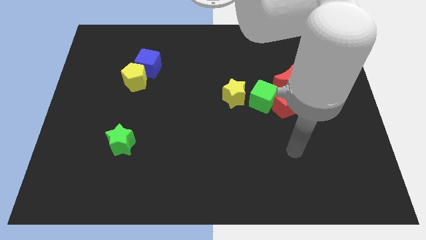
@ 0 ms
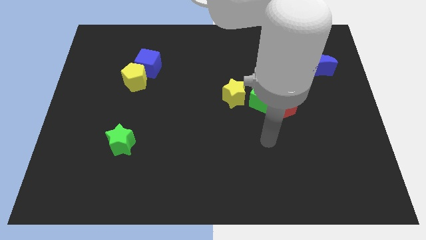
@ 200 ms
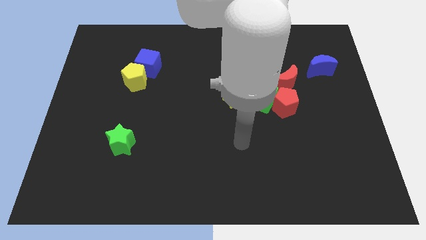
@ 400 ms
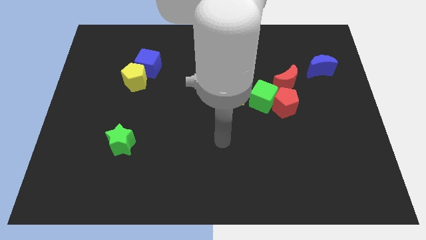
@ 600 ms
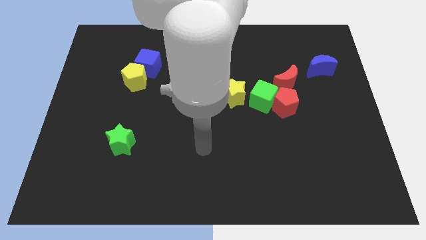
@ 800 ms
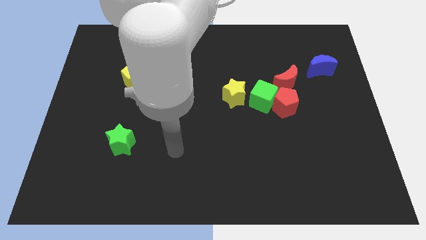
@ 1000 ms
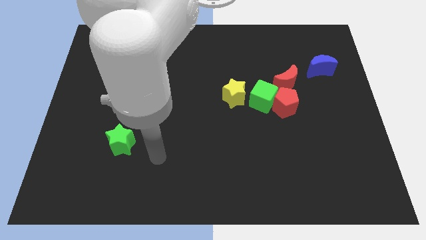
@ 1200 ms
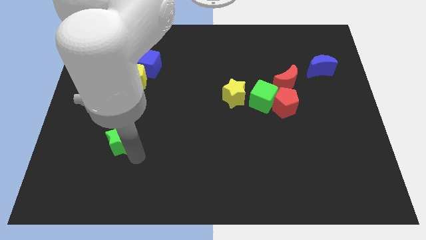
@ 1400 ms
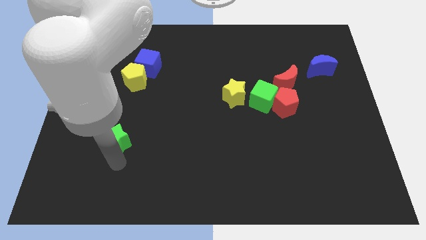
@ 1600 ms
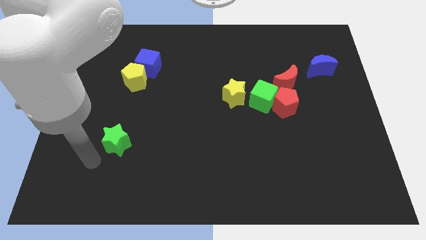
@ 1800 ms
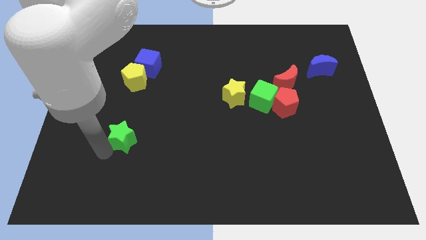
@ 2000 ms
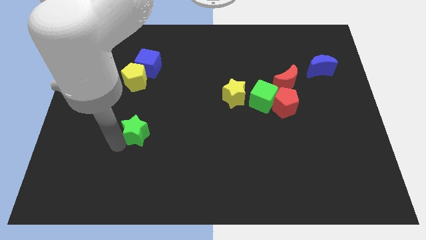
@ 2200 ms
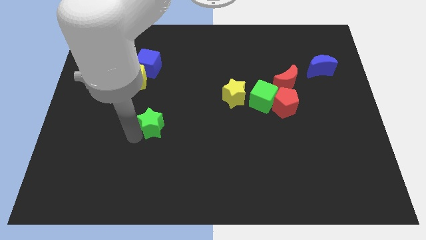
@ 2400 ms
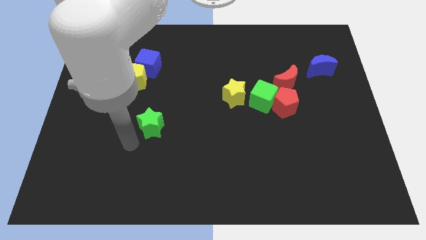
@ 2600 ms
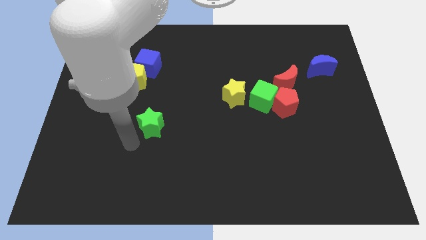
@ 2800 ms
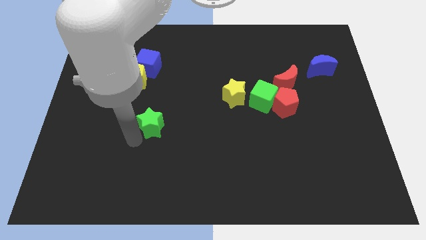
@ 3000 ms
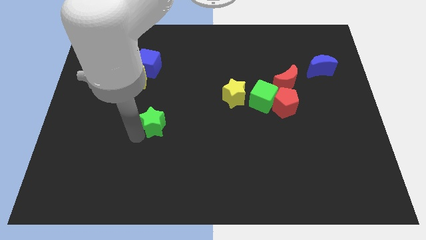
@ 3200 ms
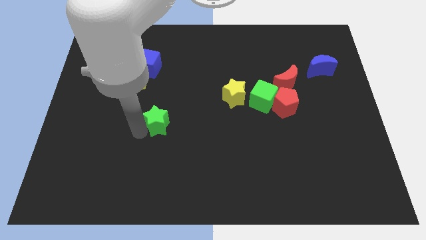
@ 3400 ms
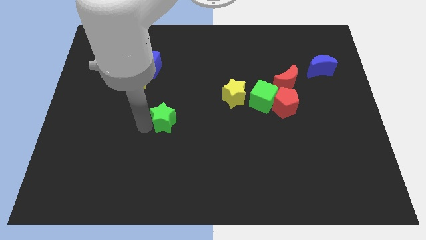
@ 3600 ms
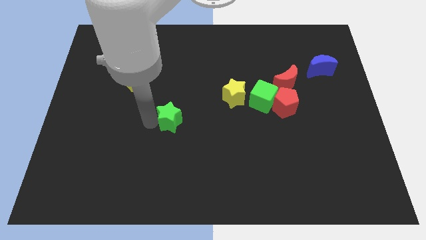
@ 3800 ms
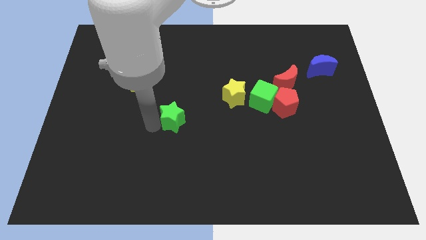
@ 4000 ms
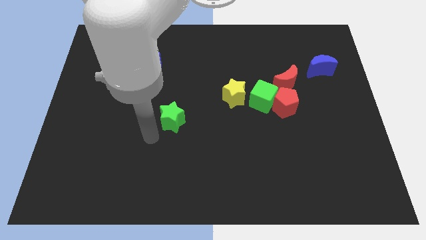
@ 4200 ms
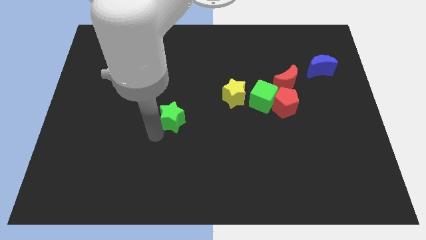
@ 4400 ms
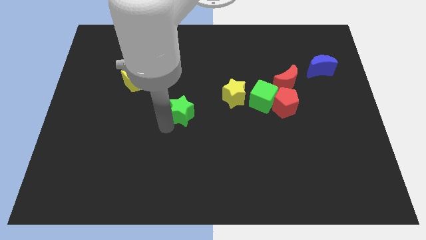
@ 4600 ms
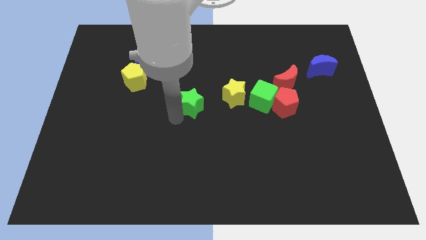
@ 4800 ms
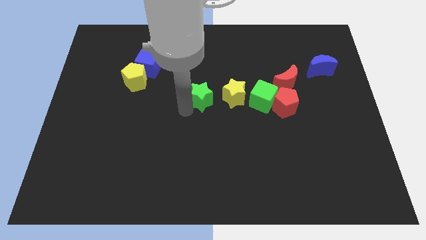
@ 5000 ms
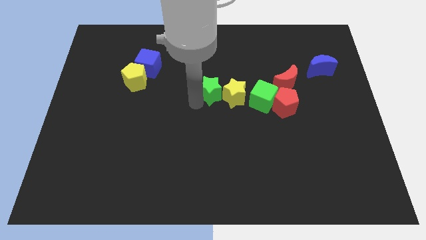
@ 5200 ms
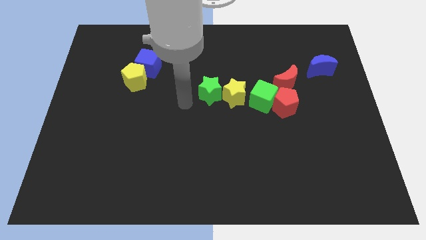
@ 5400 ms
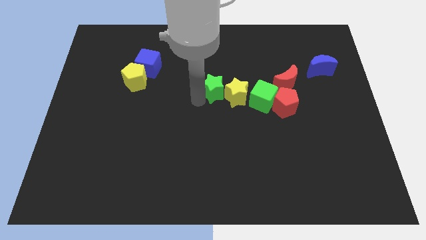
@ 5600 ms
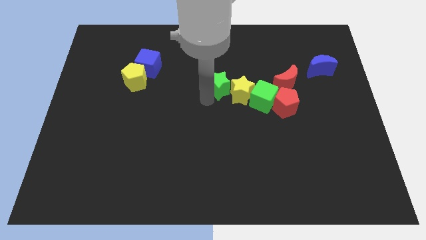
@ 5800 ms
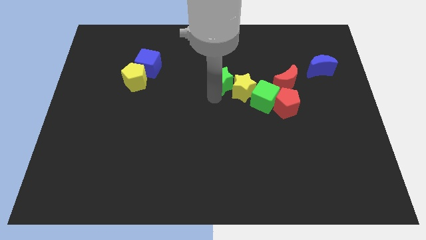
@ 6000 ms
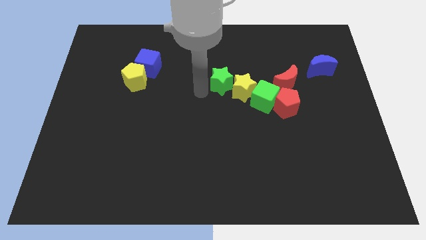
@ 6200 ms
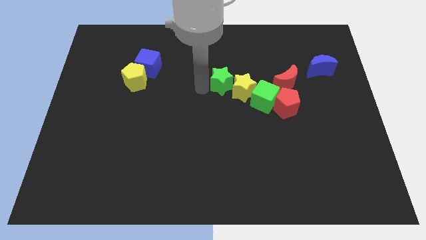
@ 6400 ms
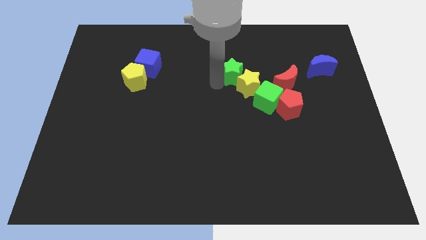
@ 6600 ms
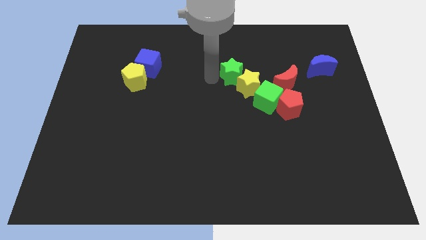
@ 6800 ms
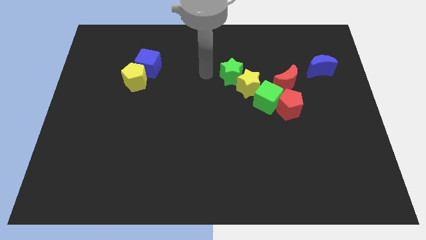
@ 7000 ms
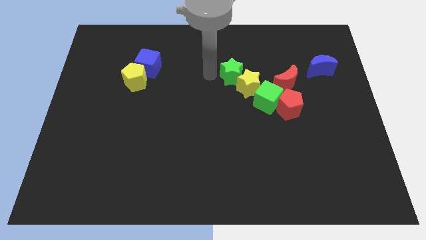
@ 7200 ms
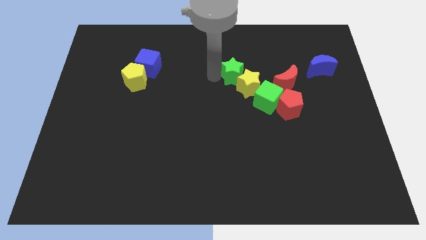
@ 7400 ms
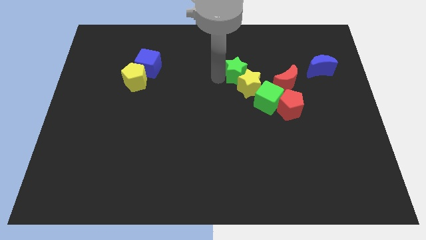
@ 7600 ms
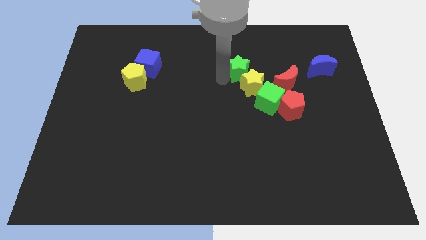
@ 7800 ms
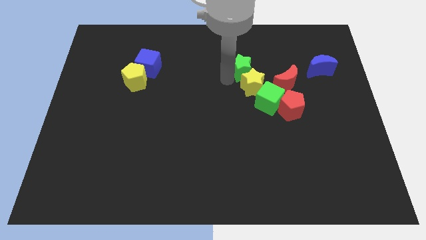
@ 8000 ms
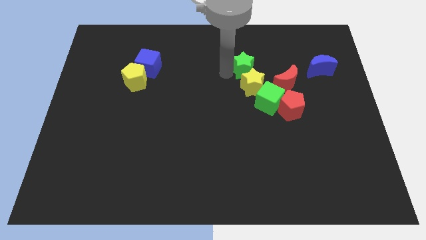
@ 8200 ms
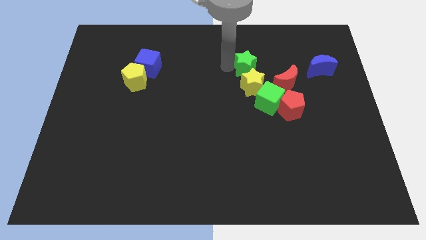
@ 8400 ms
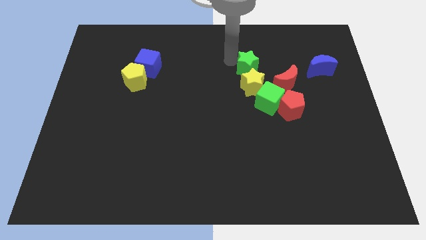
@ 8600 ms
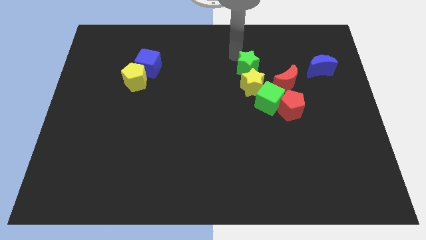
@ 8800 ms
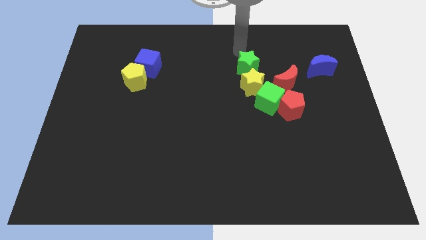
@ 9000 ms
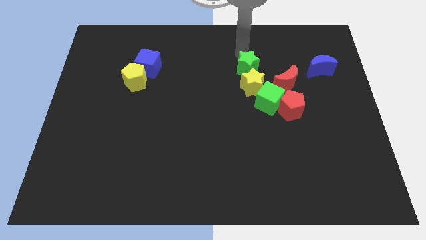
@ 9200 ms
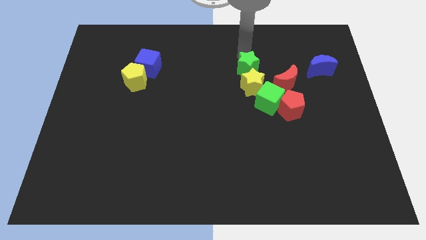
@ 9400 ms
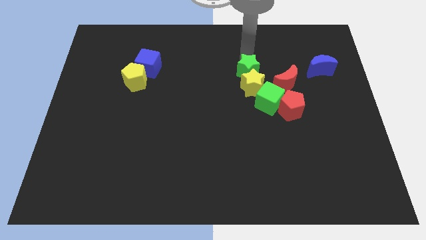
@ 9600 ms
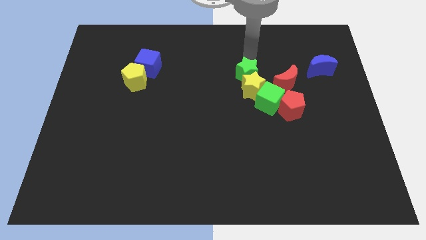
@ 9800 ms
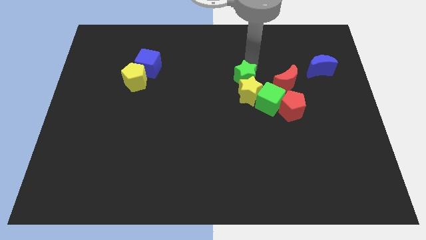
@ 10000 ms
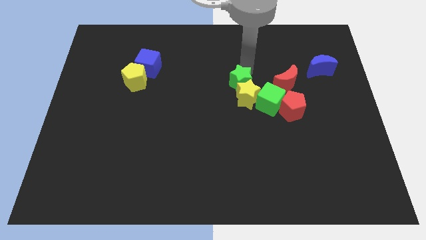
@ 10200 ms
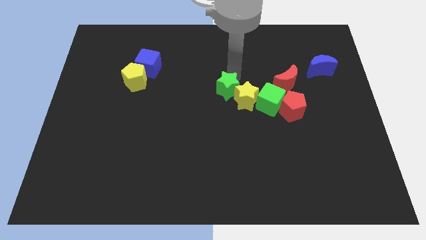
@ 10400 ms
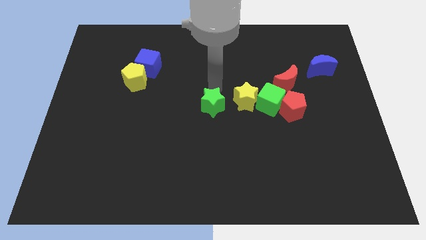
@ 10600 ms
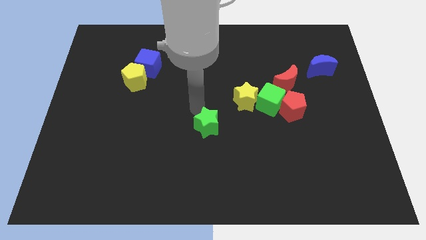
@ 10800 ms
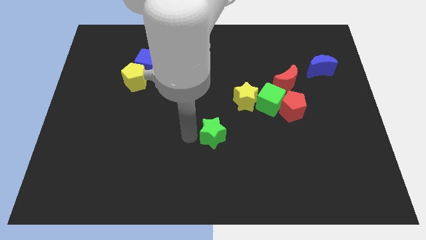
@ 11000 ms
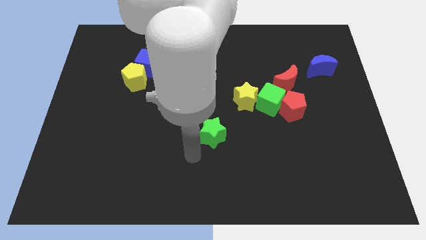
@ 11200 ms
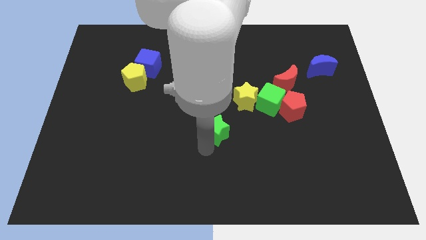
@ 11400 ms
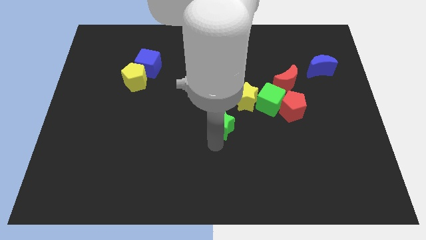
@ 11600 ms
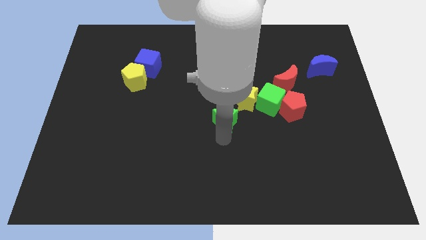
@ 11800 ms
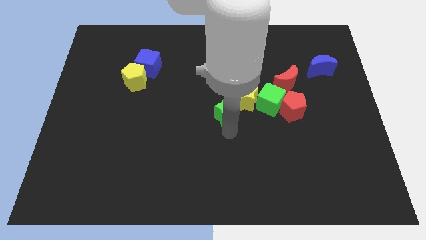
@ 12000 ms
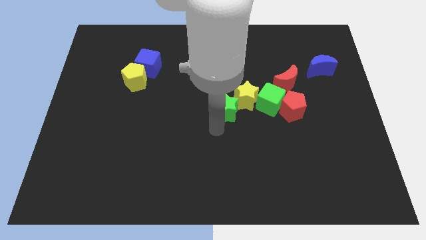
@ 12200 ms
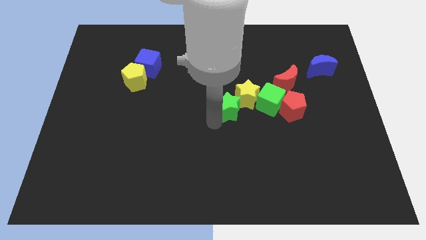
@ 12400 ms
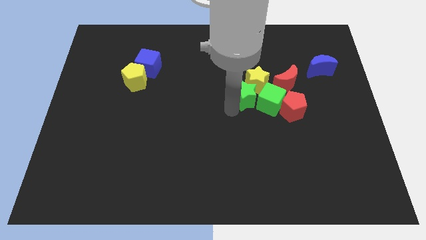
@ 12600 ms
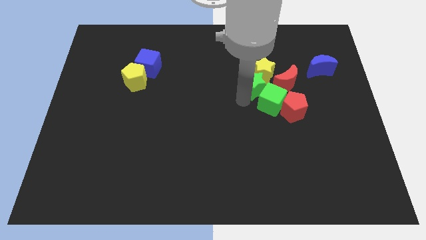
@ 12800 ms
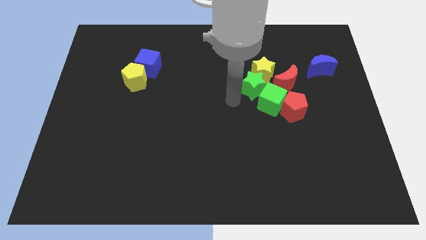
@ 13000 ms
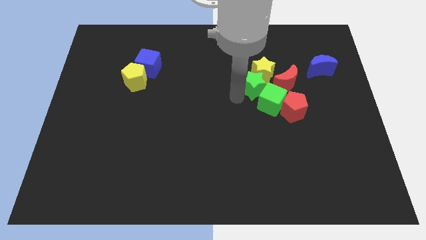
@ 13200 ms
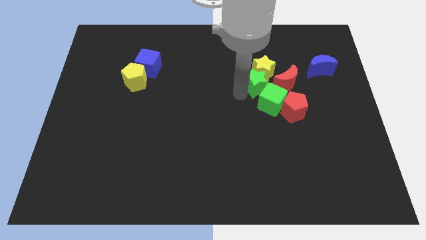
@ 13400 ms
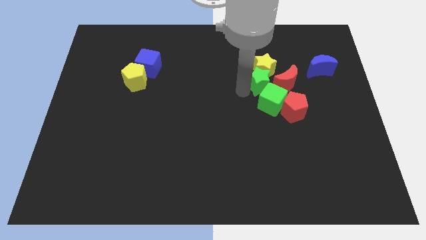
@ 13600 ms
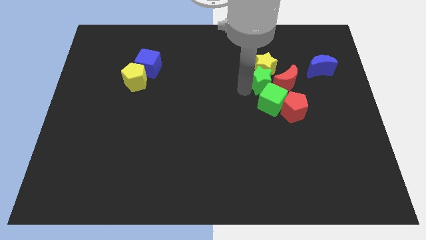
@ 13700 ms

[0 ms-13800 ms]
move the green star close to the red moon
